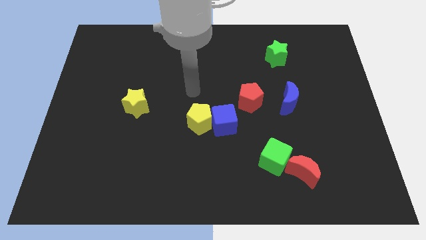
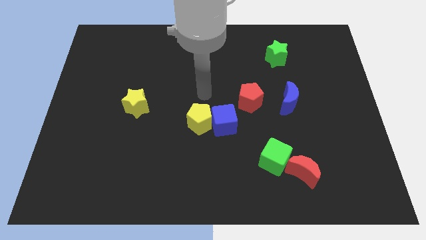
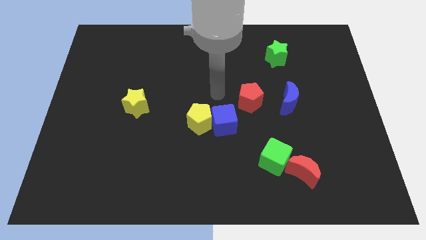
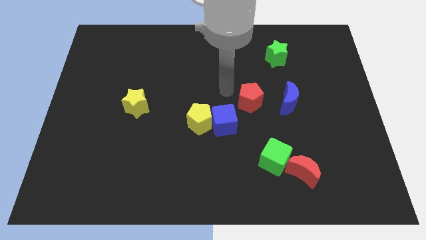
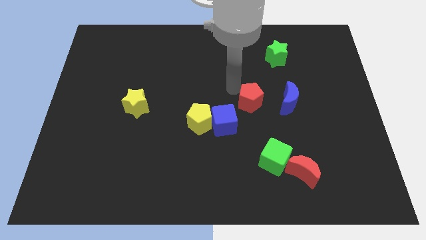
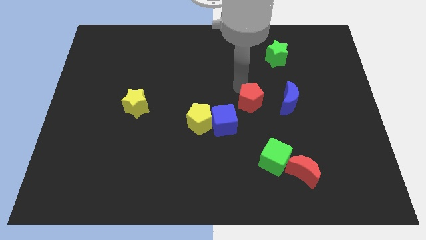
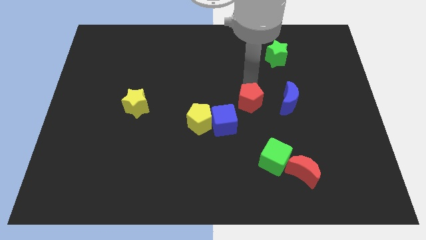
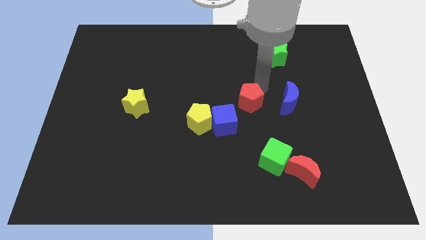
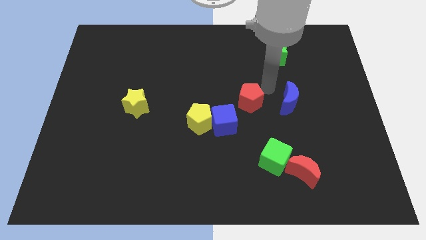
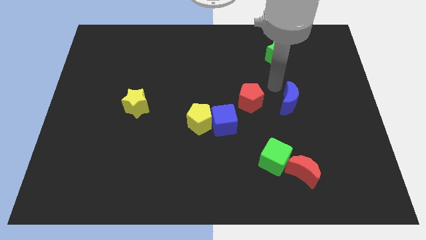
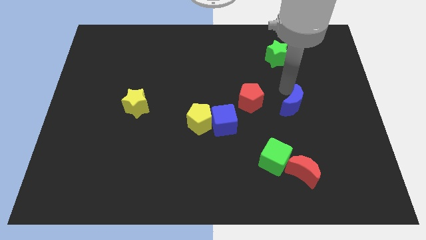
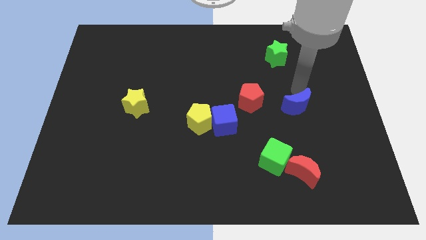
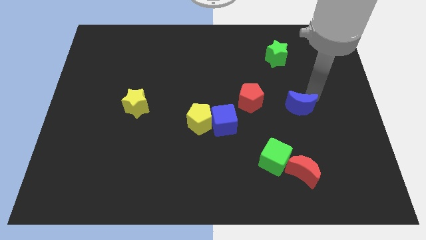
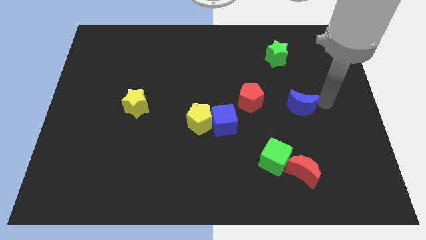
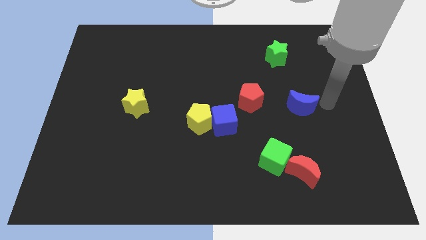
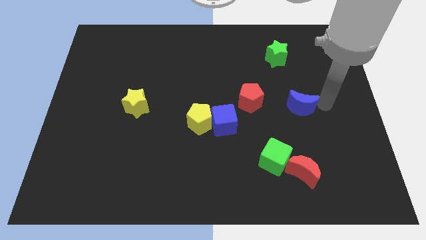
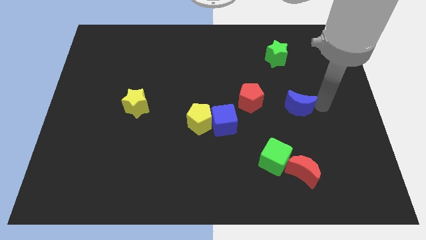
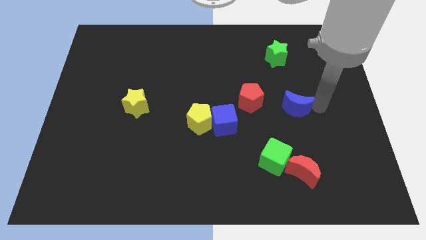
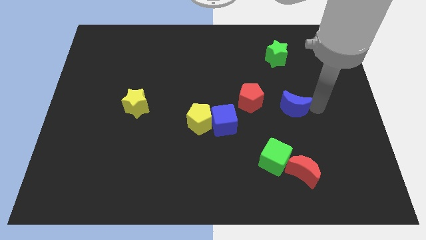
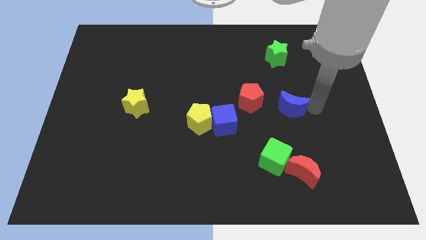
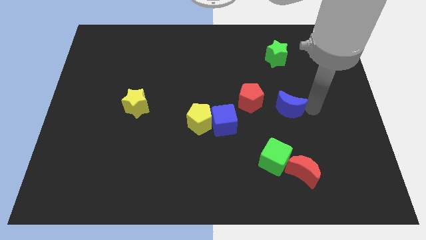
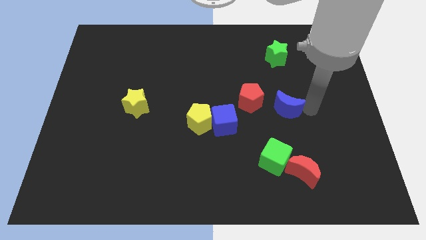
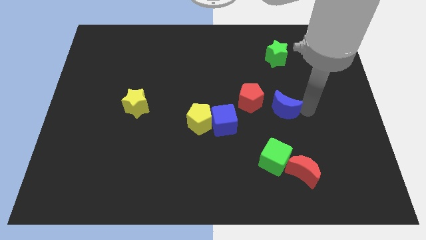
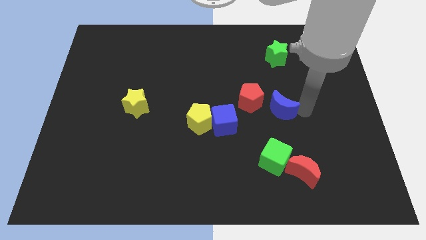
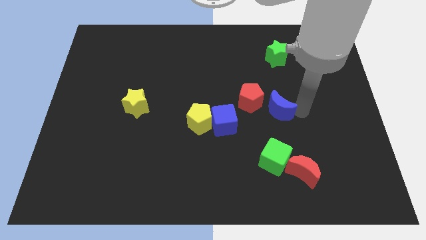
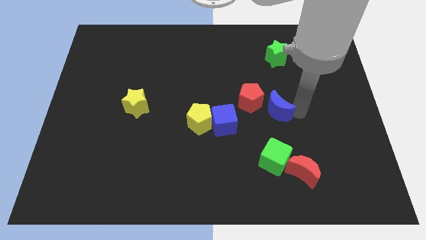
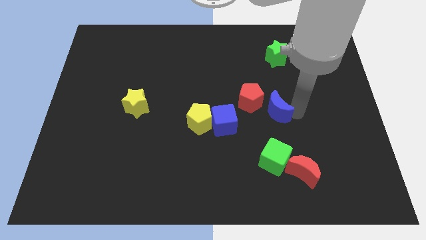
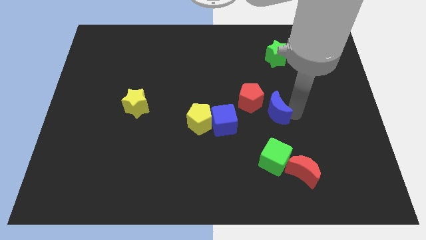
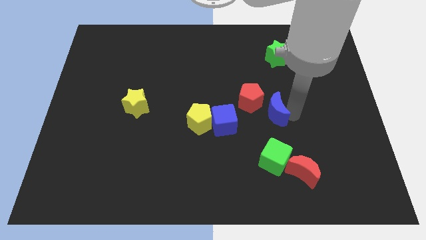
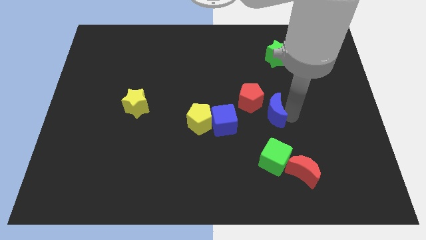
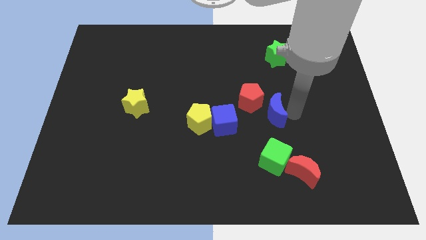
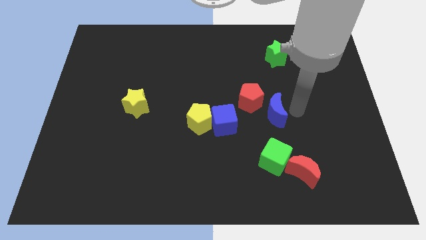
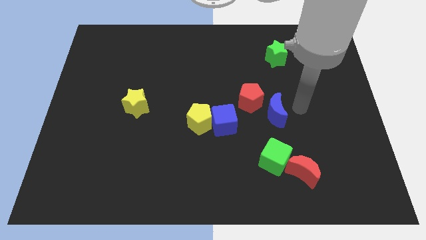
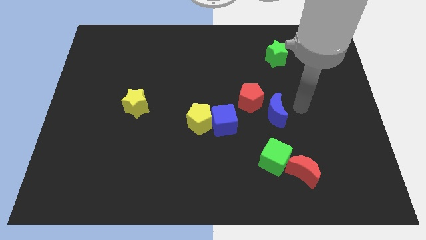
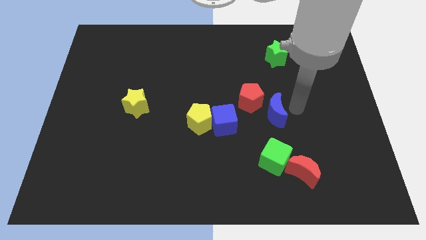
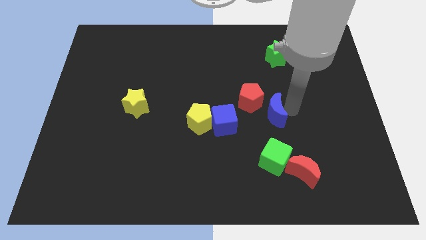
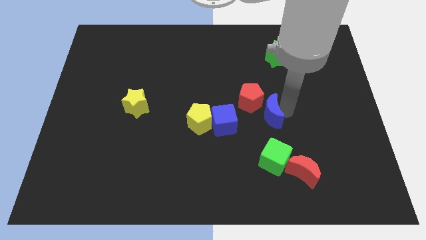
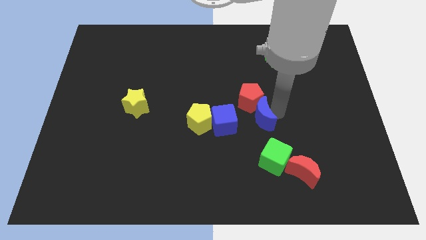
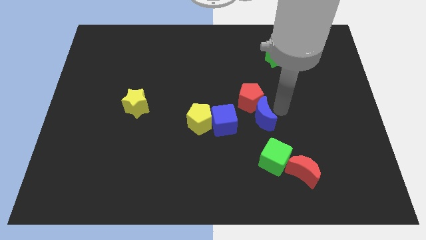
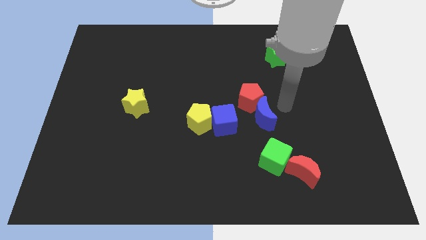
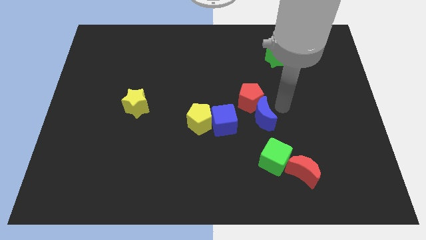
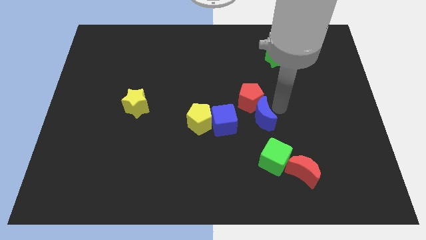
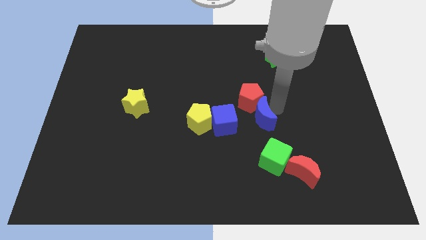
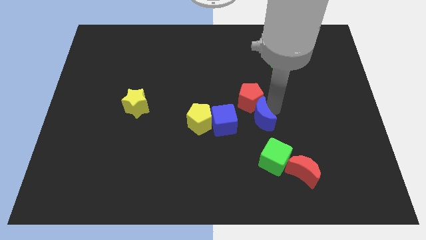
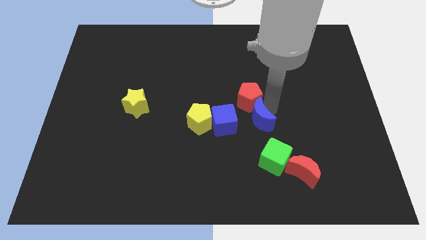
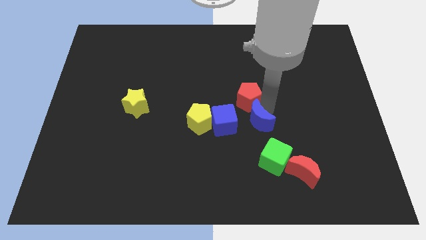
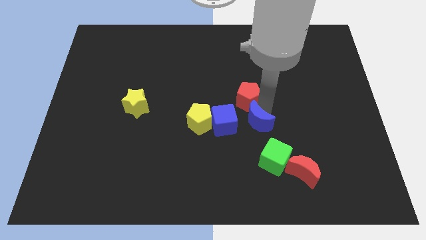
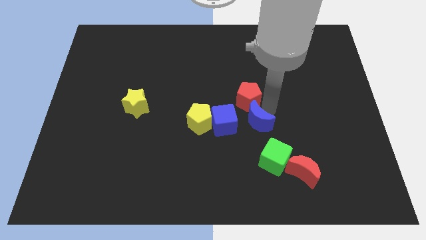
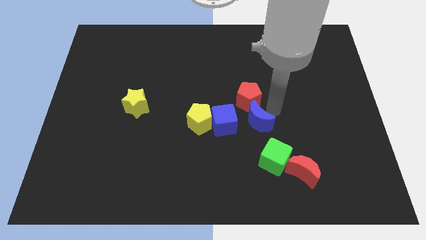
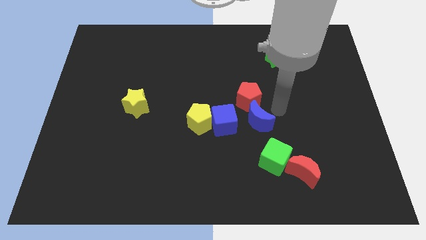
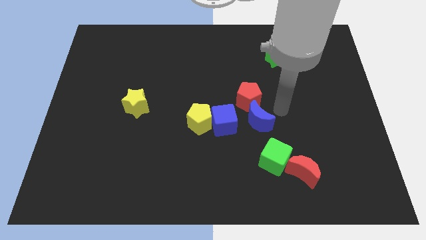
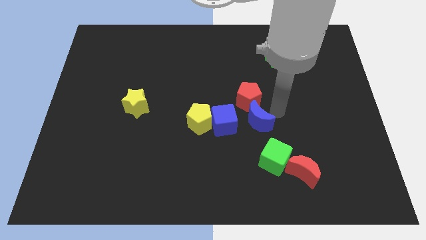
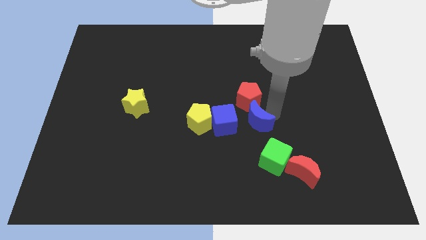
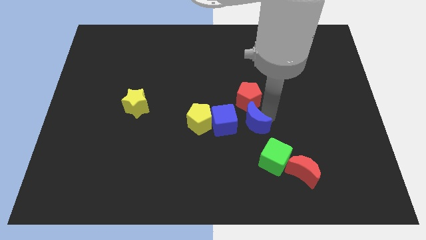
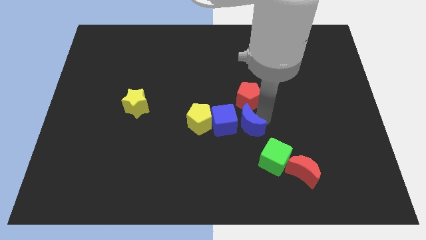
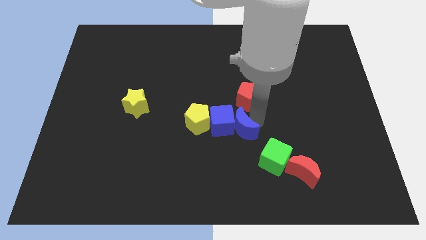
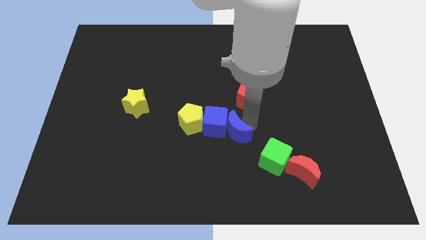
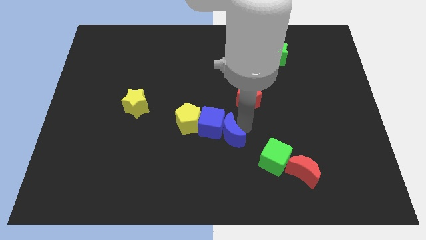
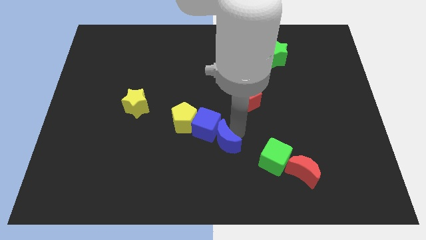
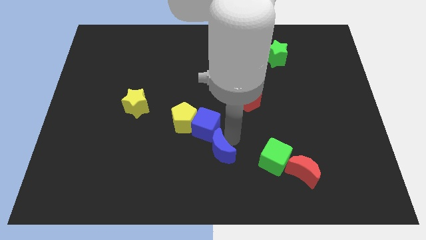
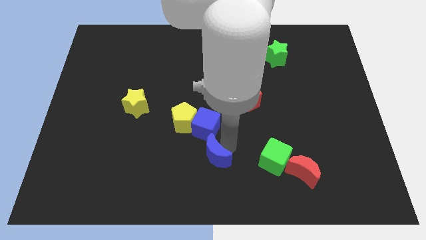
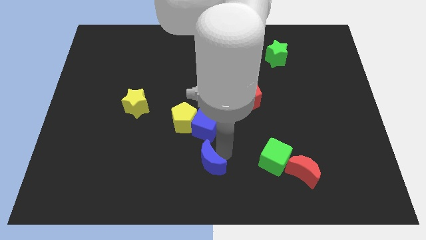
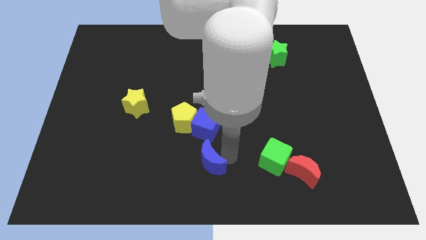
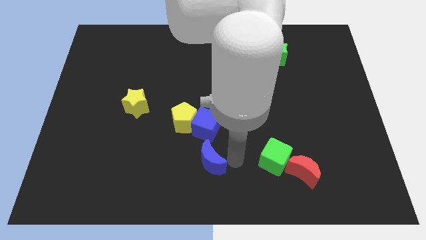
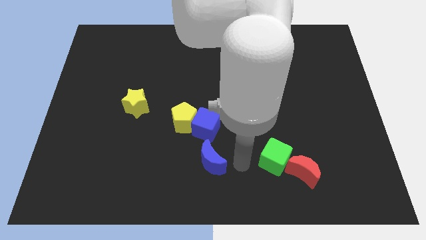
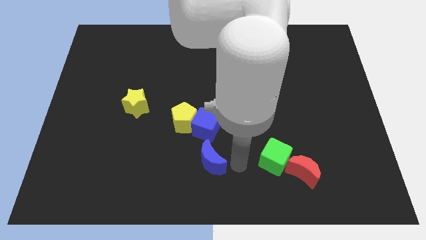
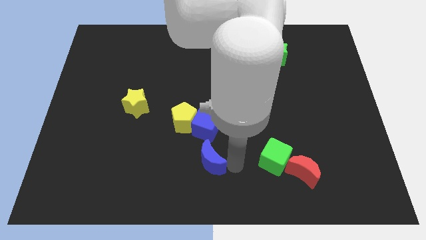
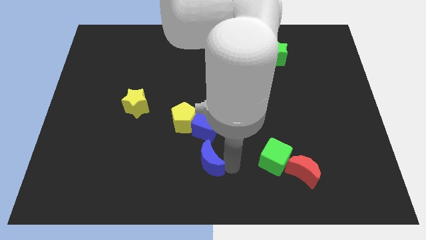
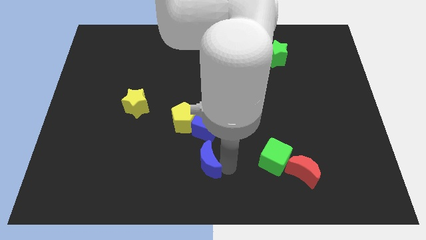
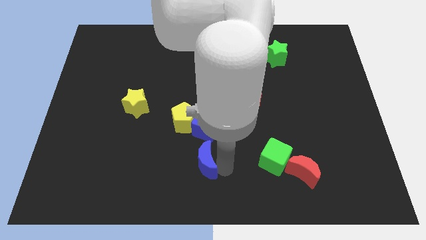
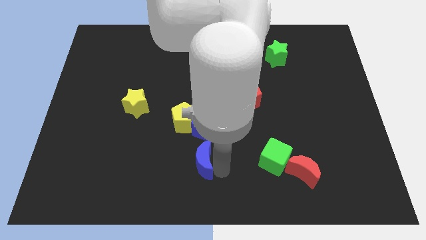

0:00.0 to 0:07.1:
slide the blue moon to the bottom of the yellow pentagon

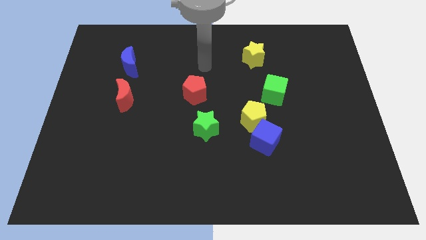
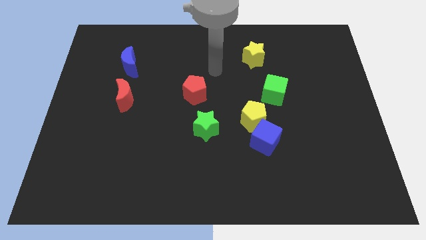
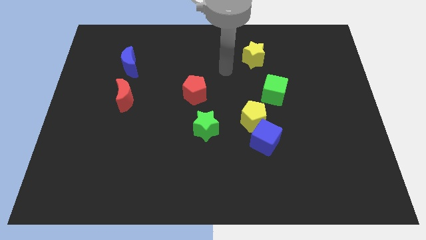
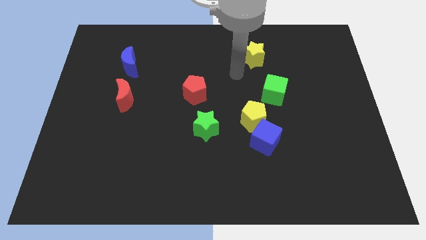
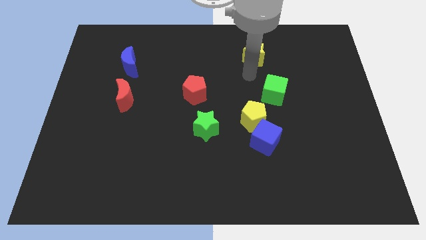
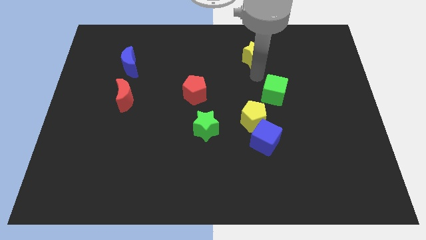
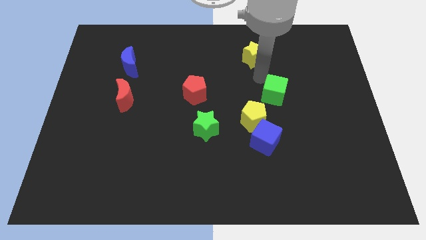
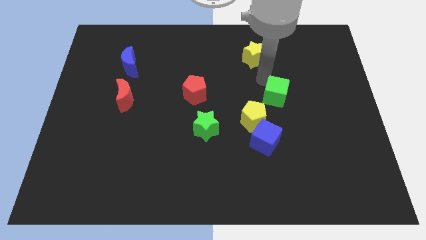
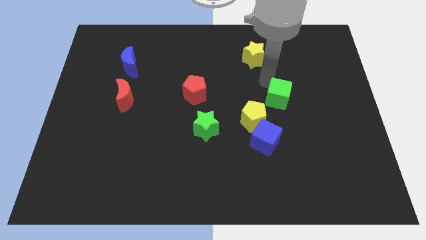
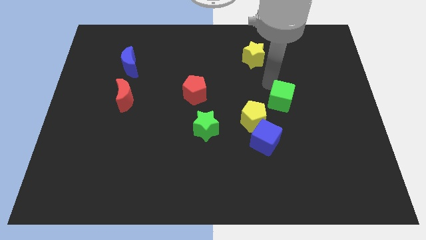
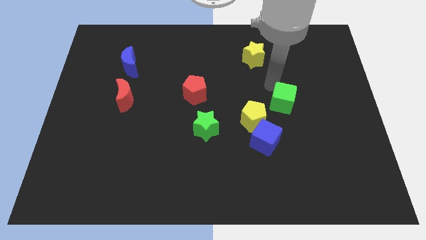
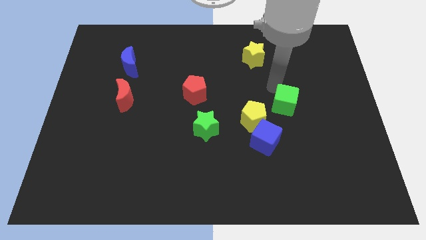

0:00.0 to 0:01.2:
put the green cube just right of the yellow pentagon
